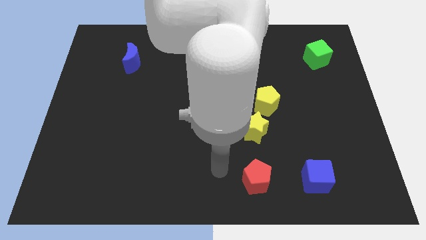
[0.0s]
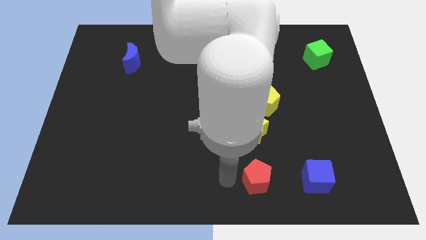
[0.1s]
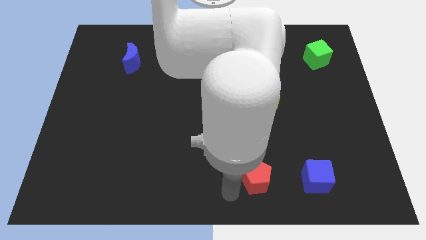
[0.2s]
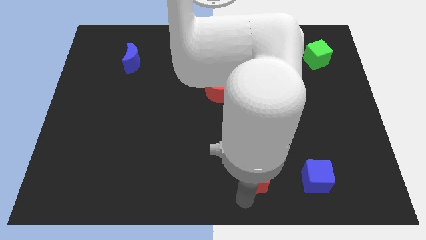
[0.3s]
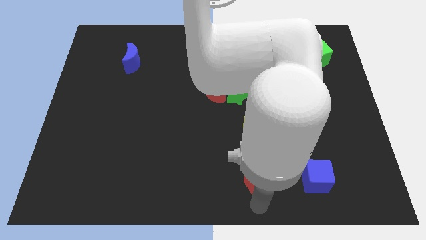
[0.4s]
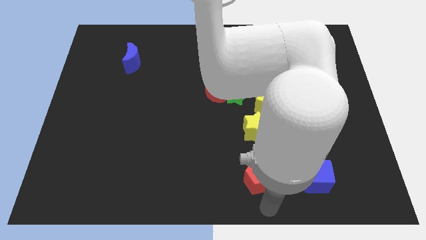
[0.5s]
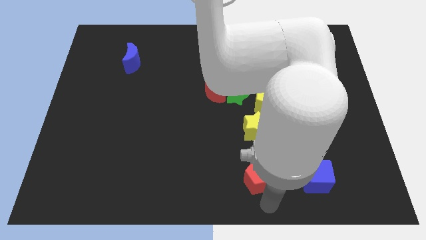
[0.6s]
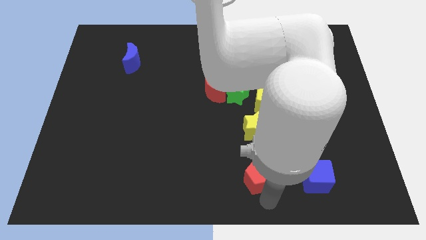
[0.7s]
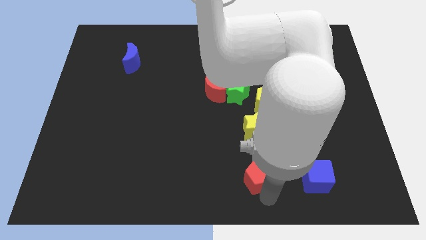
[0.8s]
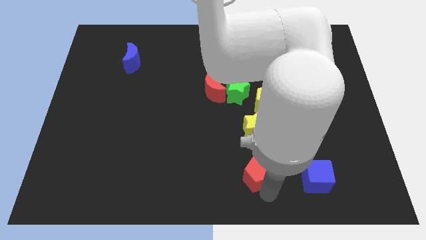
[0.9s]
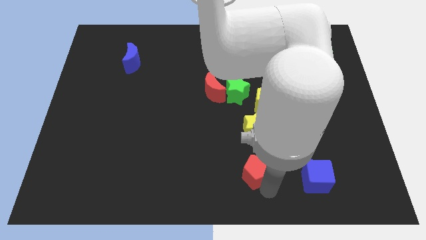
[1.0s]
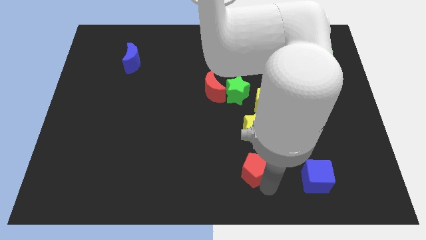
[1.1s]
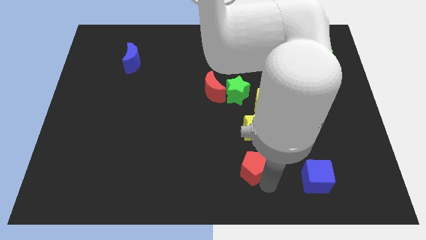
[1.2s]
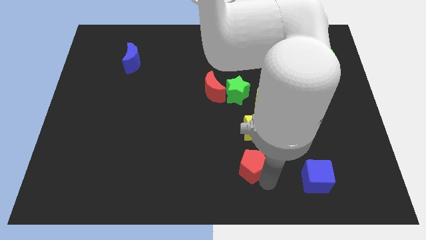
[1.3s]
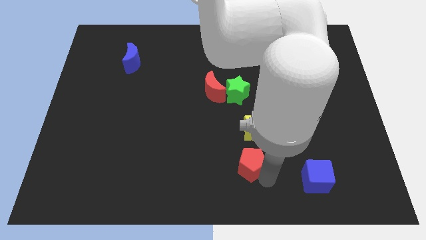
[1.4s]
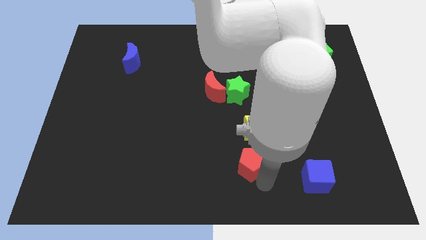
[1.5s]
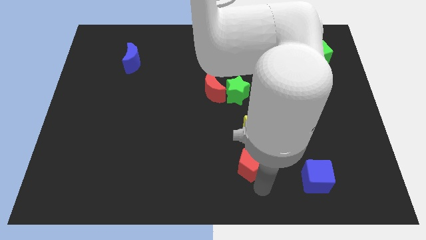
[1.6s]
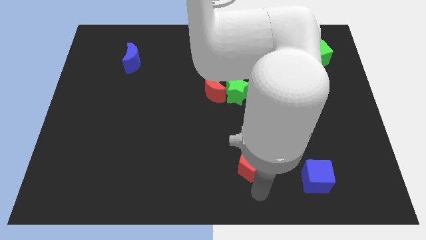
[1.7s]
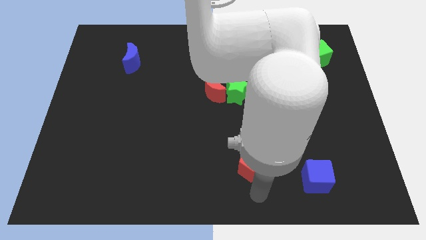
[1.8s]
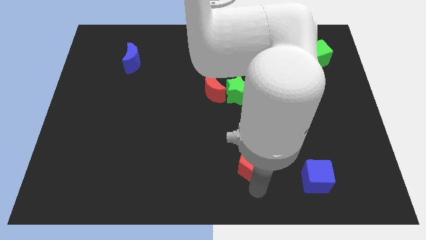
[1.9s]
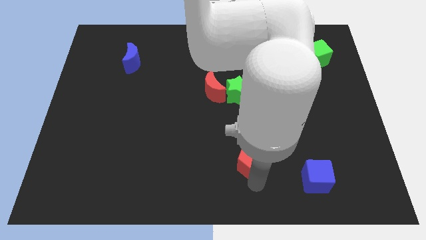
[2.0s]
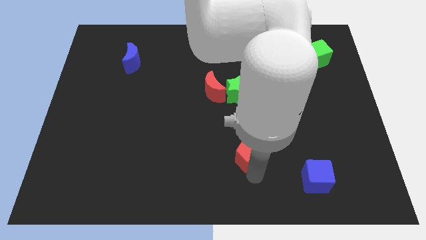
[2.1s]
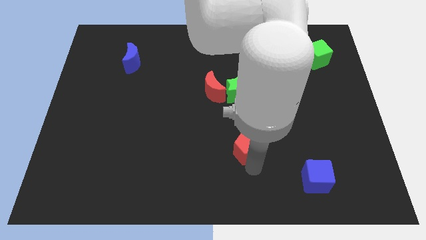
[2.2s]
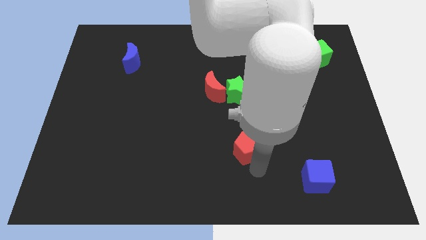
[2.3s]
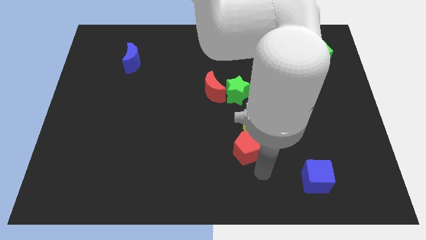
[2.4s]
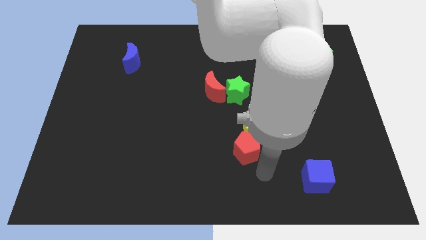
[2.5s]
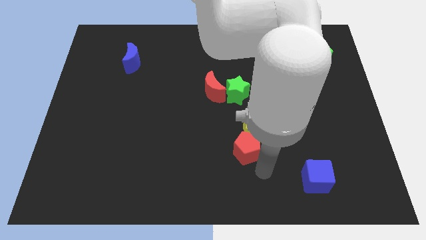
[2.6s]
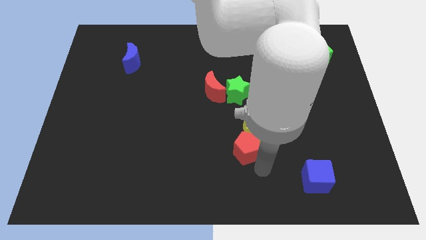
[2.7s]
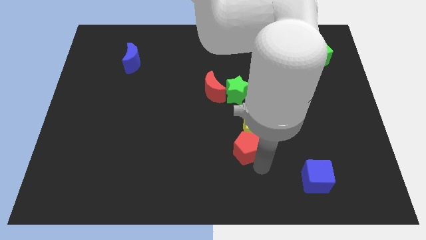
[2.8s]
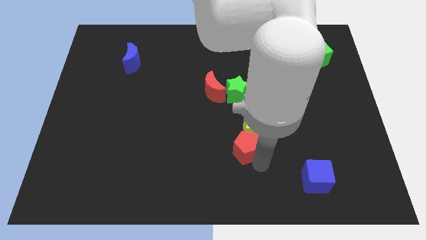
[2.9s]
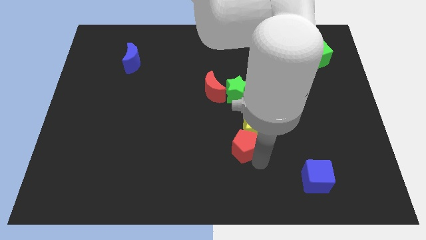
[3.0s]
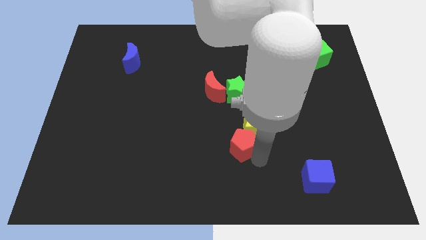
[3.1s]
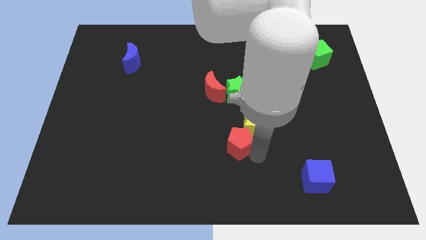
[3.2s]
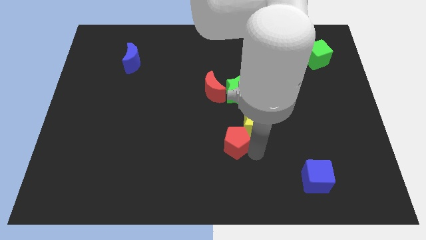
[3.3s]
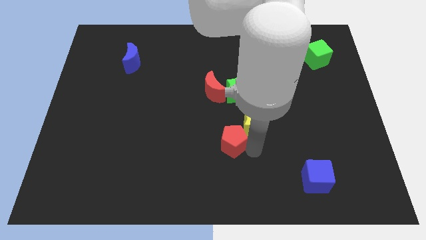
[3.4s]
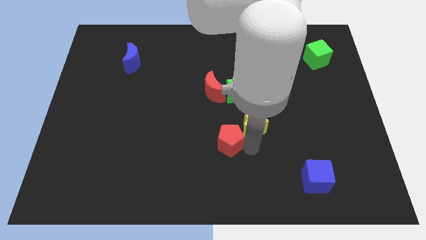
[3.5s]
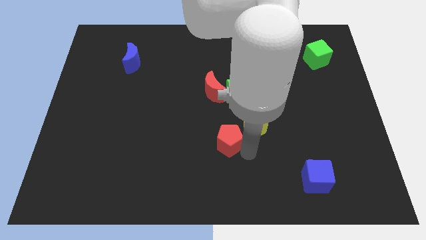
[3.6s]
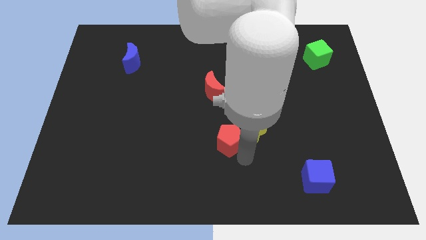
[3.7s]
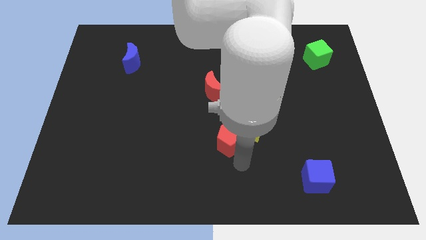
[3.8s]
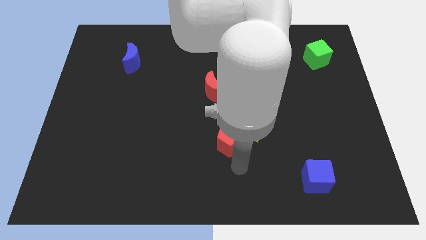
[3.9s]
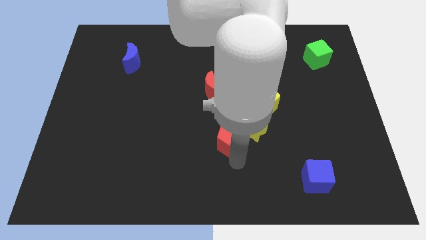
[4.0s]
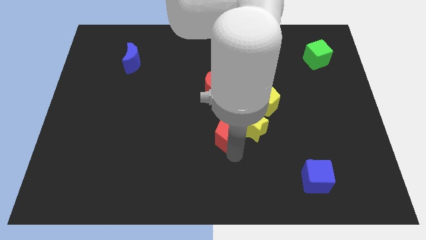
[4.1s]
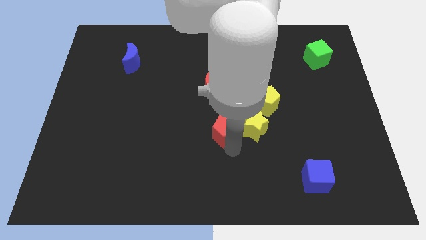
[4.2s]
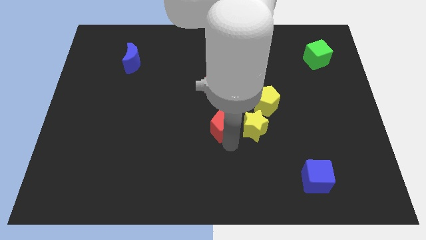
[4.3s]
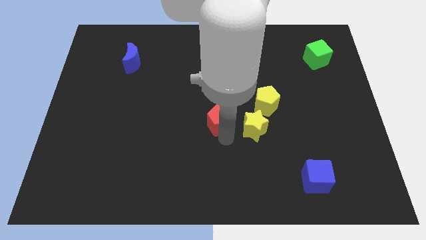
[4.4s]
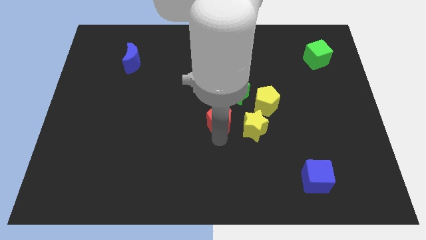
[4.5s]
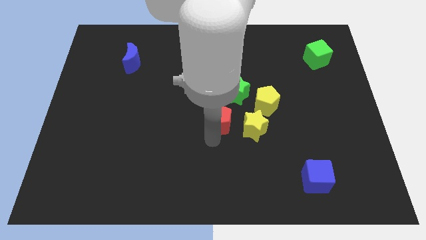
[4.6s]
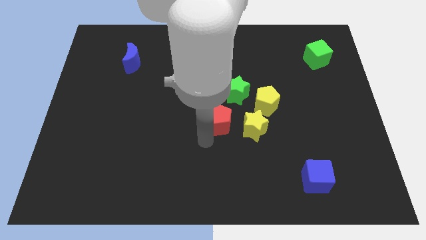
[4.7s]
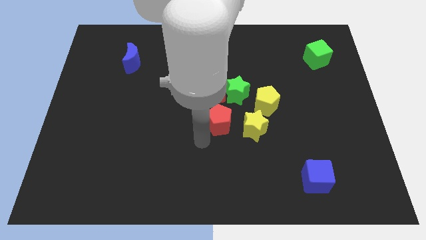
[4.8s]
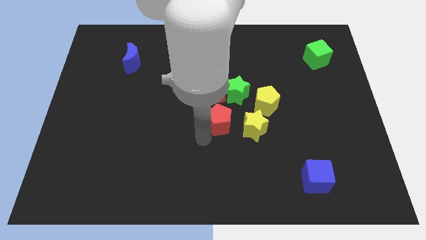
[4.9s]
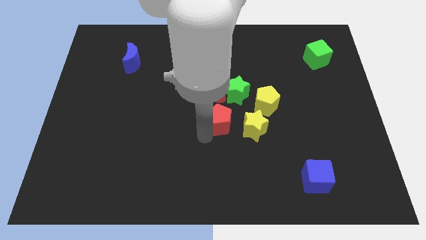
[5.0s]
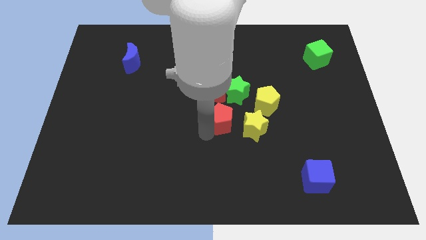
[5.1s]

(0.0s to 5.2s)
put the red pentagon to the bottom right side of the red moon

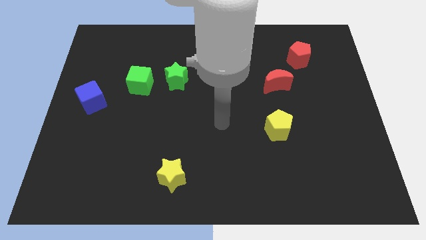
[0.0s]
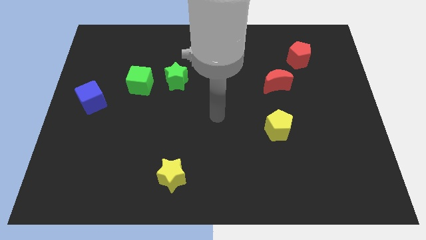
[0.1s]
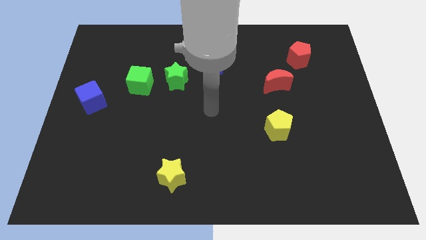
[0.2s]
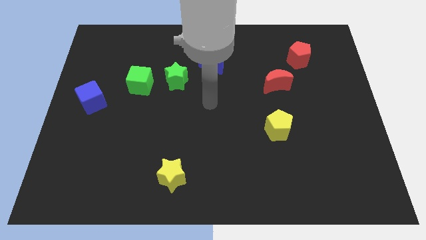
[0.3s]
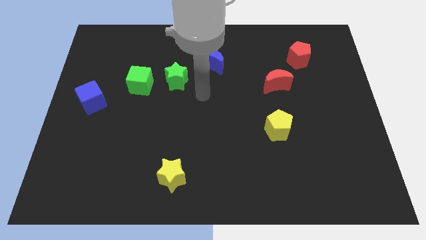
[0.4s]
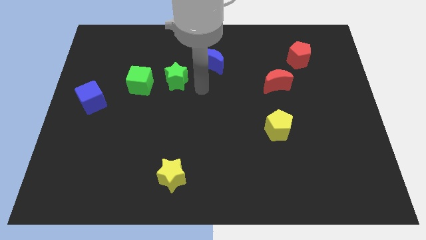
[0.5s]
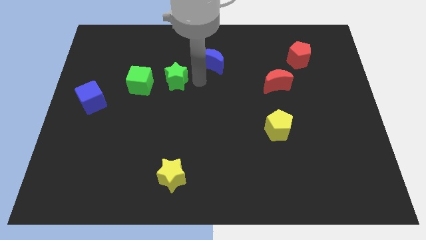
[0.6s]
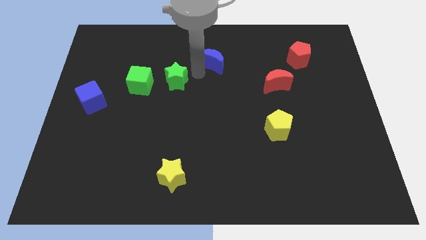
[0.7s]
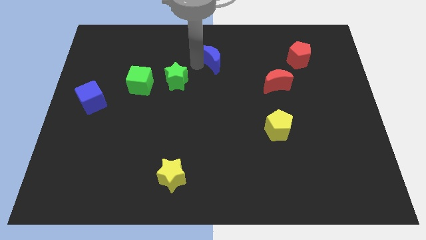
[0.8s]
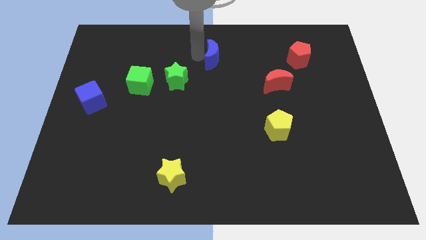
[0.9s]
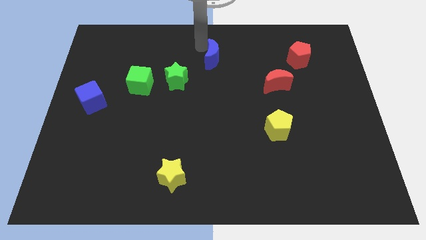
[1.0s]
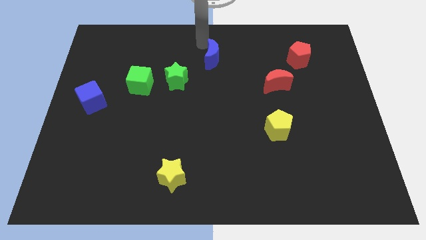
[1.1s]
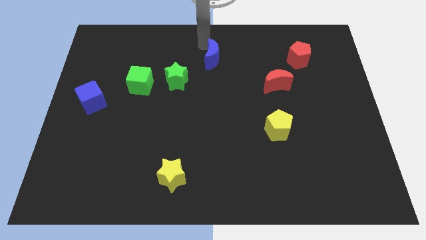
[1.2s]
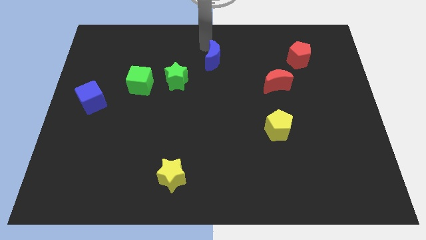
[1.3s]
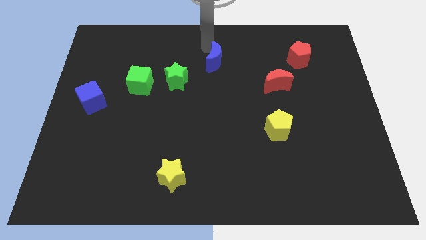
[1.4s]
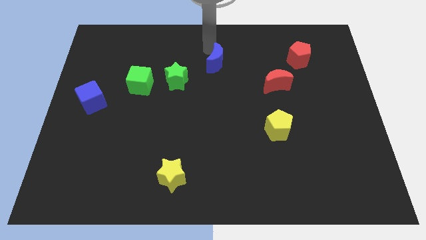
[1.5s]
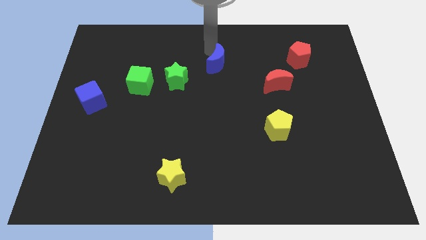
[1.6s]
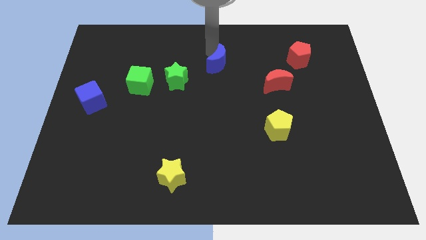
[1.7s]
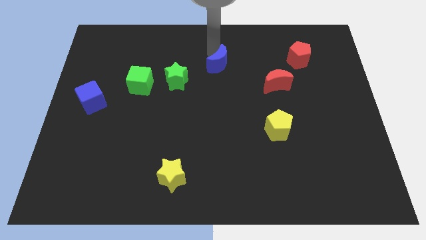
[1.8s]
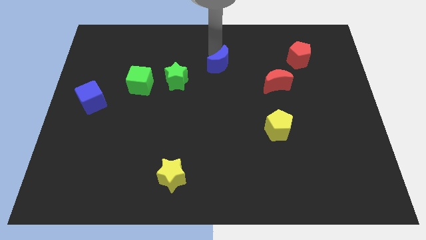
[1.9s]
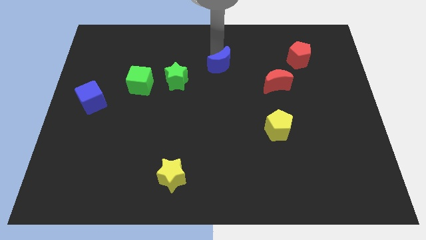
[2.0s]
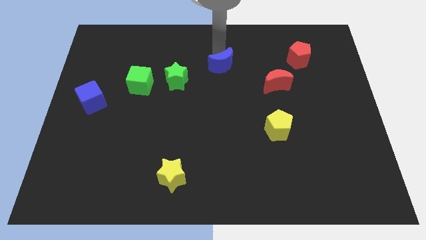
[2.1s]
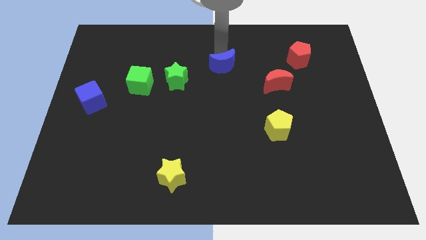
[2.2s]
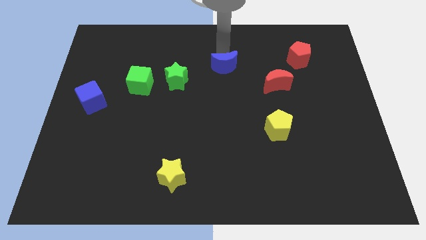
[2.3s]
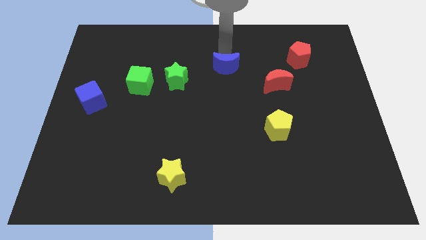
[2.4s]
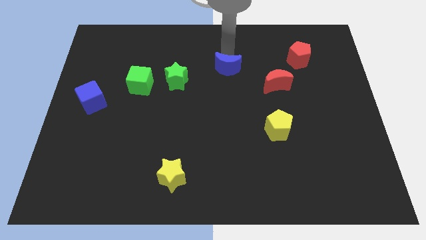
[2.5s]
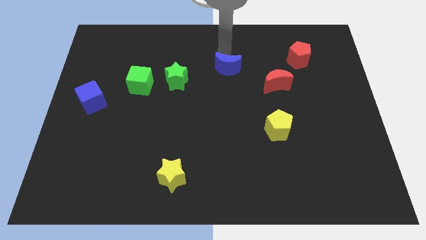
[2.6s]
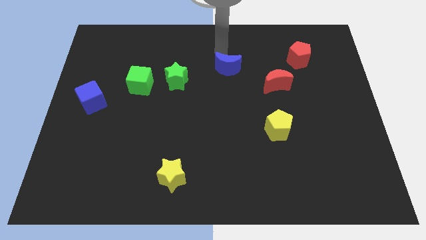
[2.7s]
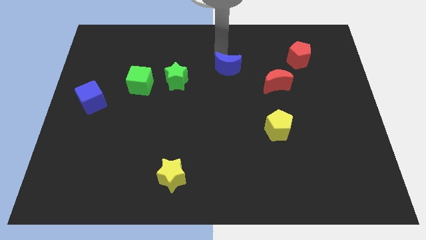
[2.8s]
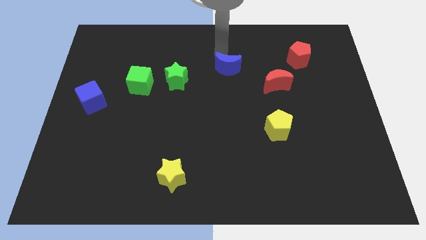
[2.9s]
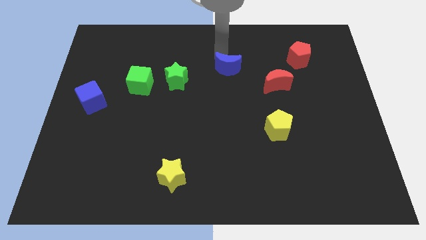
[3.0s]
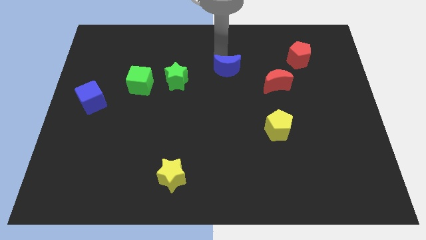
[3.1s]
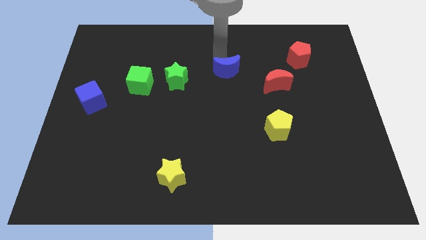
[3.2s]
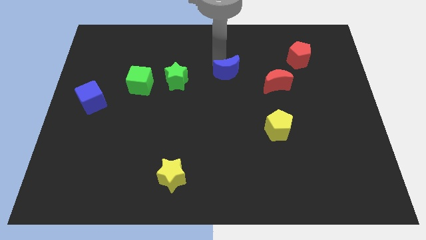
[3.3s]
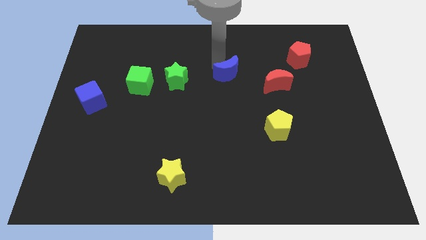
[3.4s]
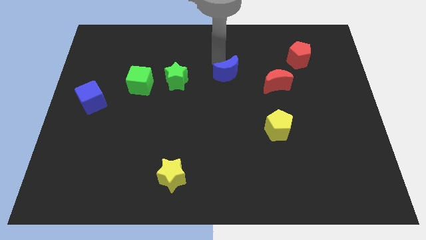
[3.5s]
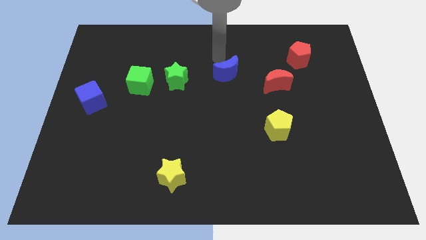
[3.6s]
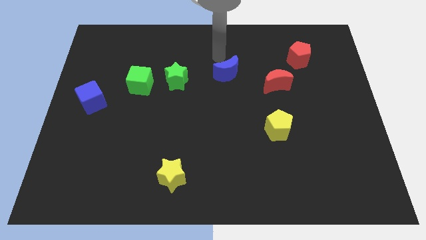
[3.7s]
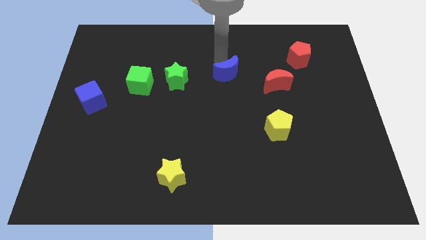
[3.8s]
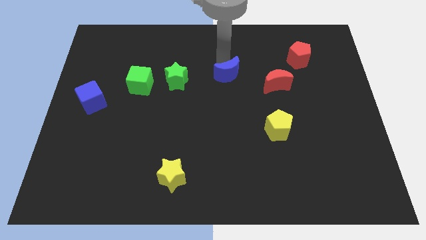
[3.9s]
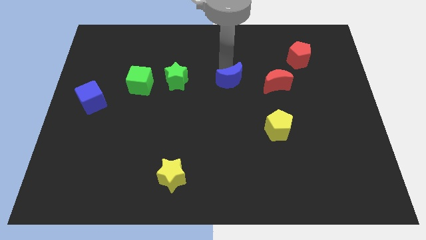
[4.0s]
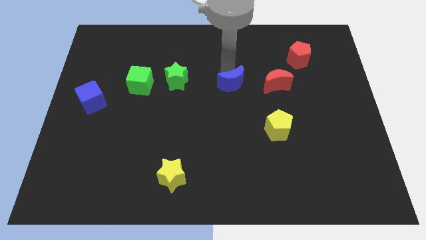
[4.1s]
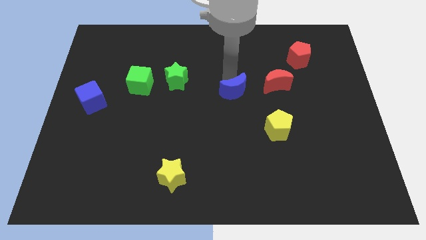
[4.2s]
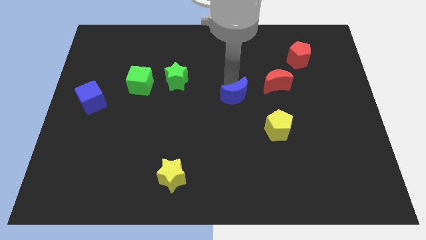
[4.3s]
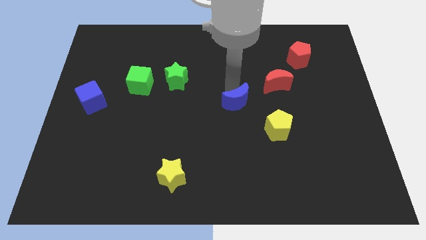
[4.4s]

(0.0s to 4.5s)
push the blue moon to the top left of the yellow pentagon
